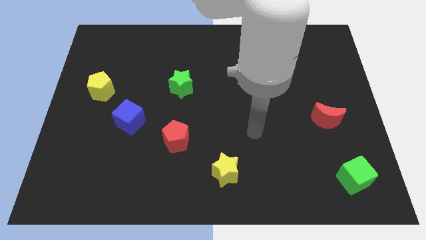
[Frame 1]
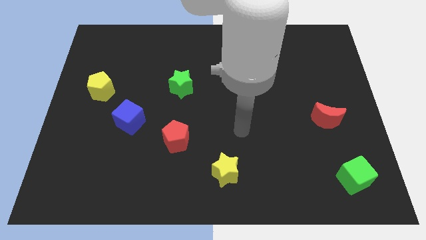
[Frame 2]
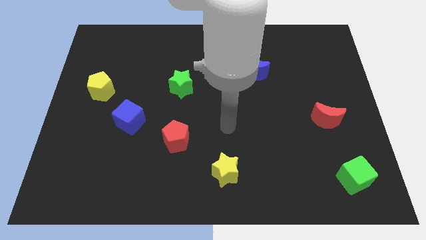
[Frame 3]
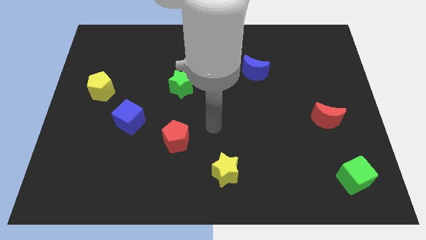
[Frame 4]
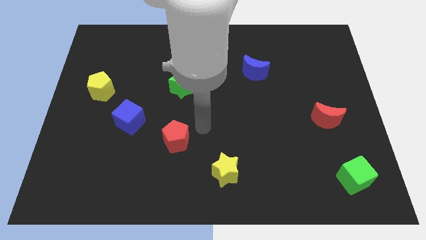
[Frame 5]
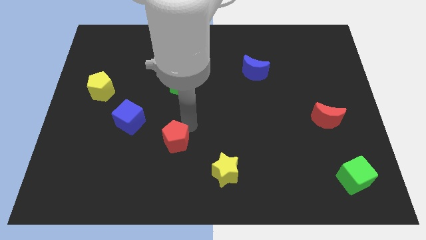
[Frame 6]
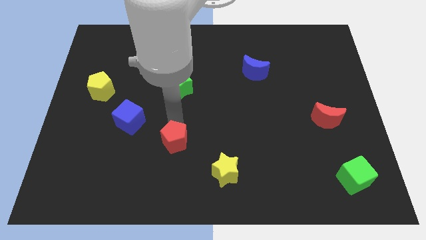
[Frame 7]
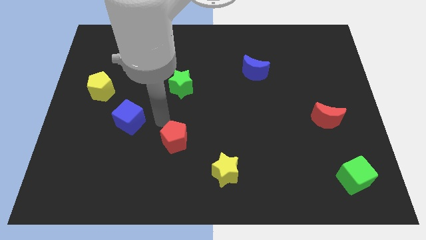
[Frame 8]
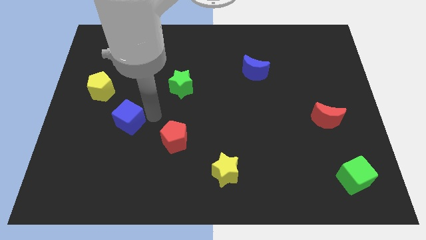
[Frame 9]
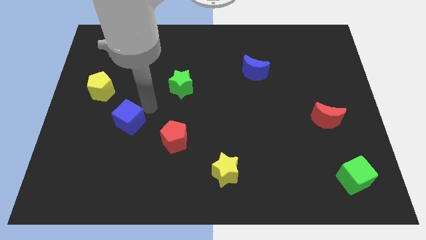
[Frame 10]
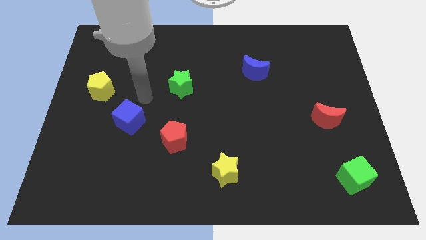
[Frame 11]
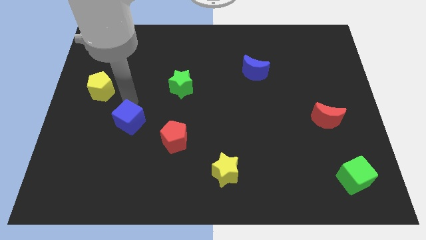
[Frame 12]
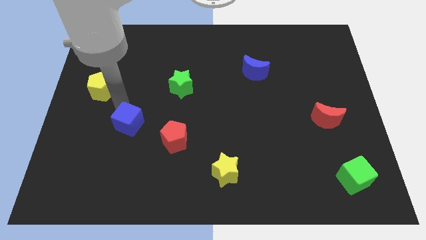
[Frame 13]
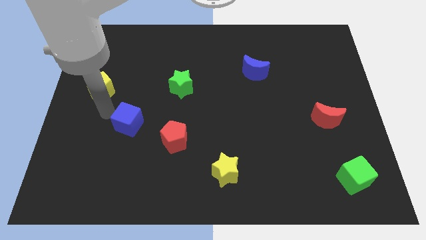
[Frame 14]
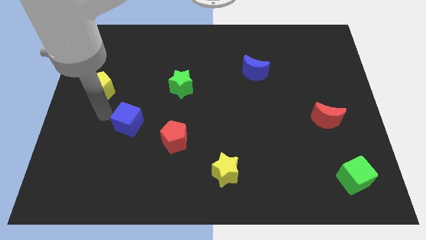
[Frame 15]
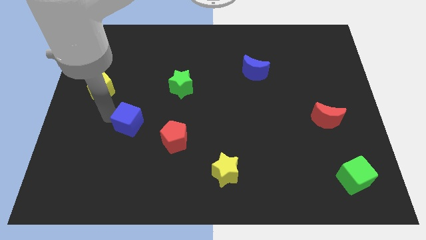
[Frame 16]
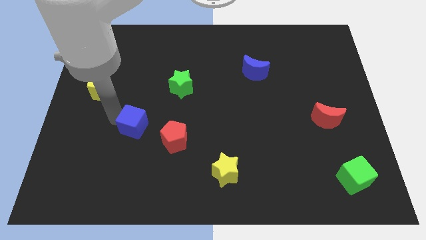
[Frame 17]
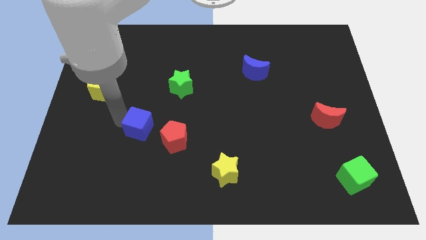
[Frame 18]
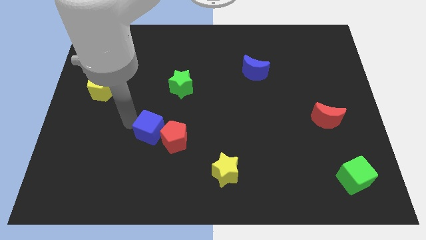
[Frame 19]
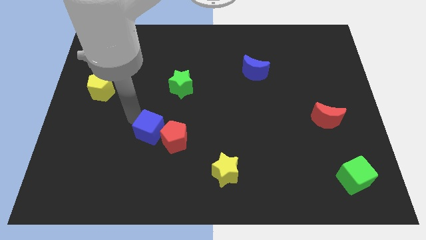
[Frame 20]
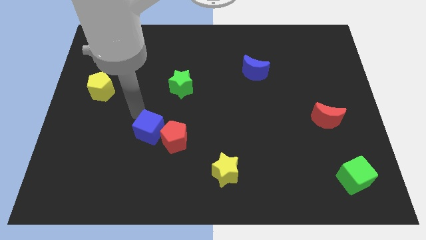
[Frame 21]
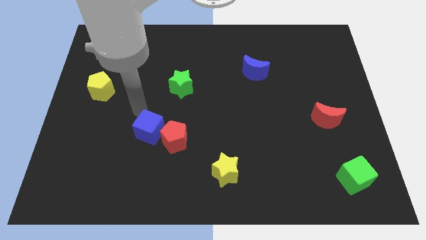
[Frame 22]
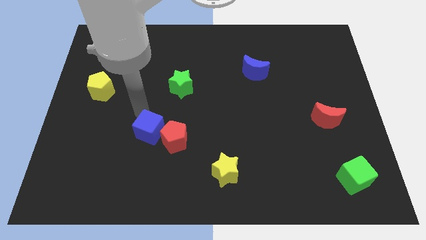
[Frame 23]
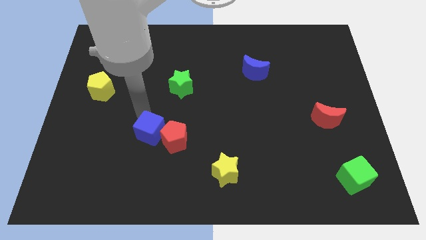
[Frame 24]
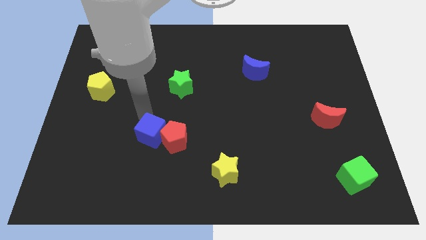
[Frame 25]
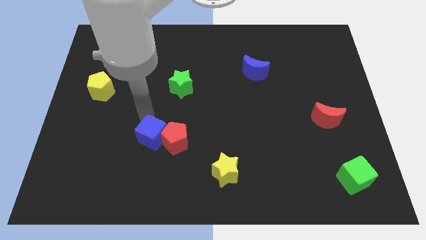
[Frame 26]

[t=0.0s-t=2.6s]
push the blue cube slightly diagonally downwards and to the right

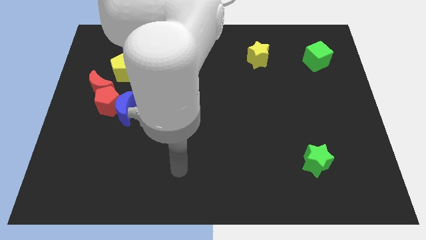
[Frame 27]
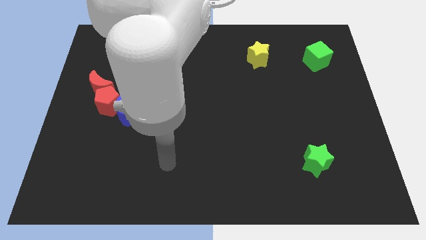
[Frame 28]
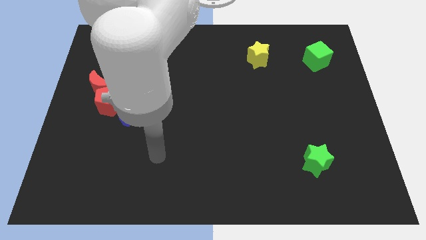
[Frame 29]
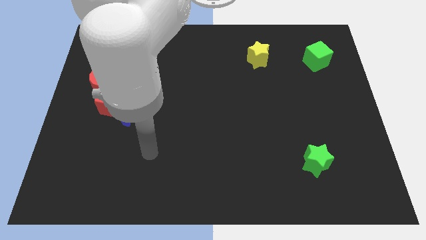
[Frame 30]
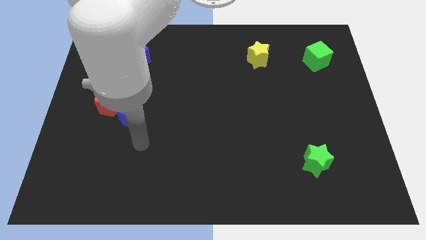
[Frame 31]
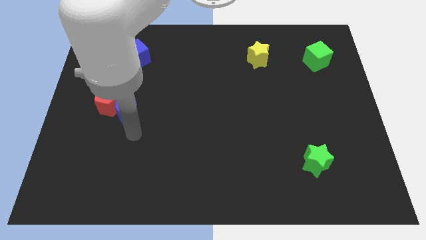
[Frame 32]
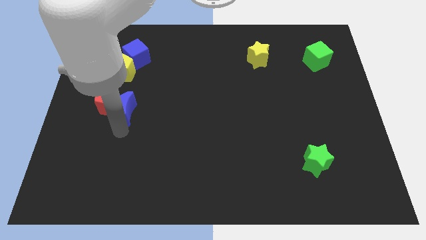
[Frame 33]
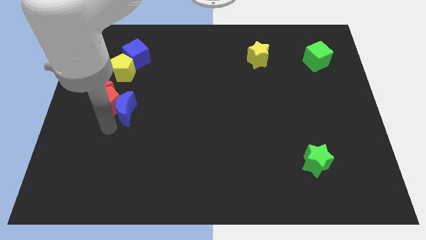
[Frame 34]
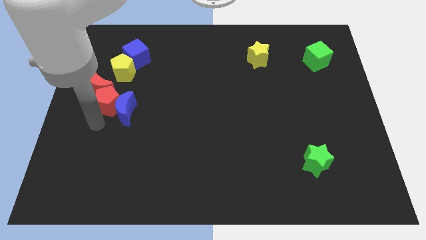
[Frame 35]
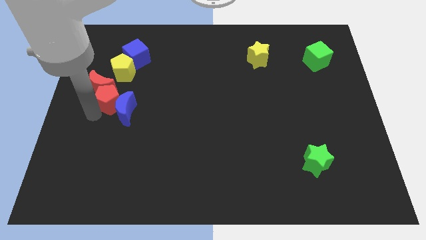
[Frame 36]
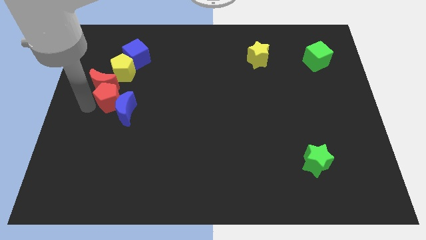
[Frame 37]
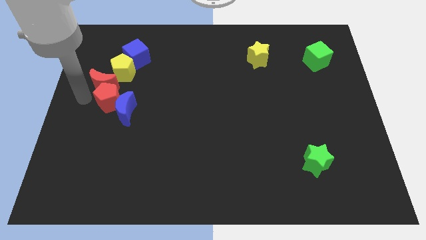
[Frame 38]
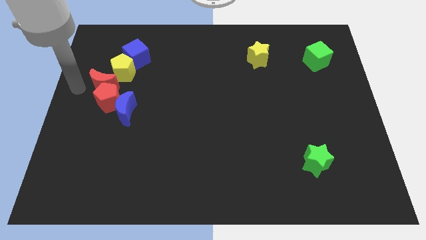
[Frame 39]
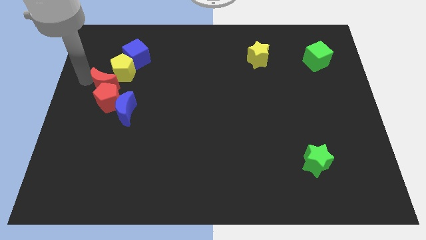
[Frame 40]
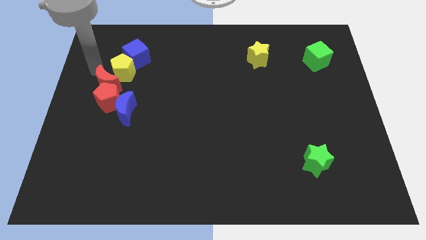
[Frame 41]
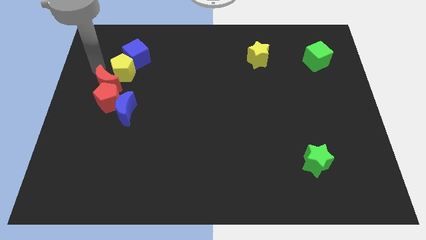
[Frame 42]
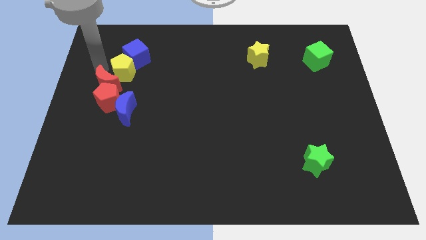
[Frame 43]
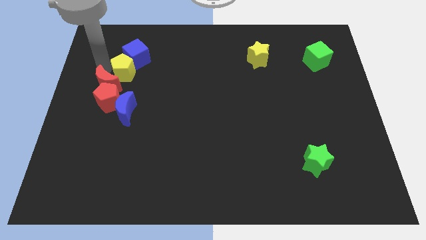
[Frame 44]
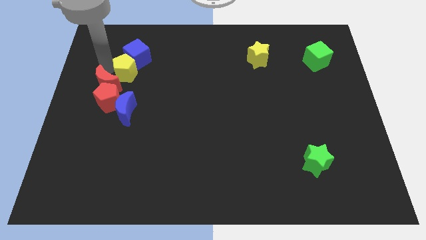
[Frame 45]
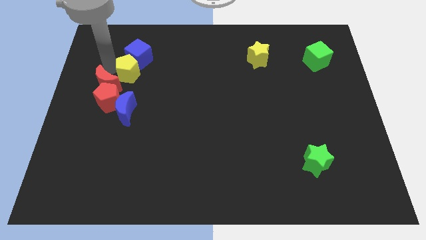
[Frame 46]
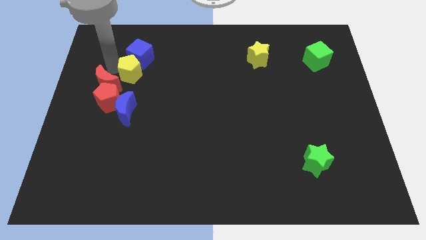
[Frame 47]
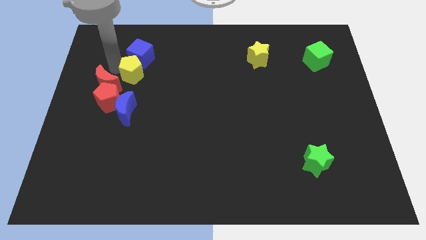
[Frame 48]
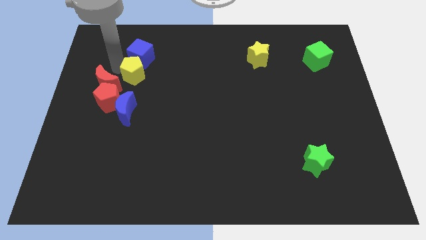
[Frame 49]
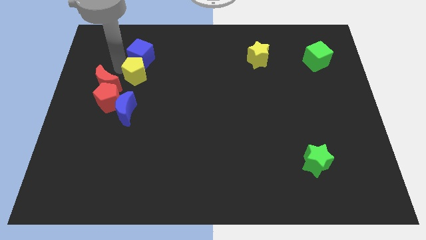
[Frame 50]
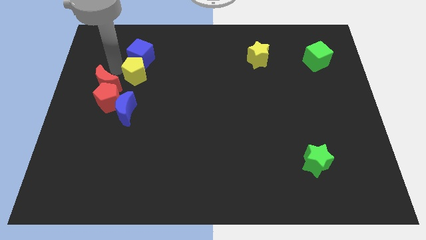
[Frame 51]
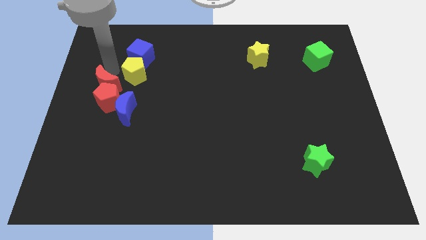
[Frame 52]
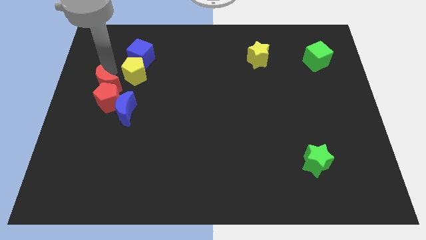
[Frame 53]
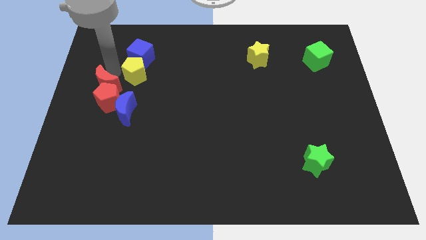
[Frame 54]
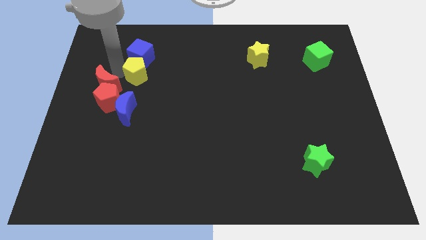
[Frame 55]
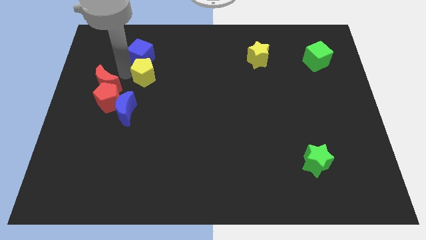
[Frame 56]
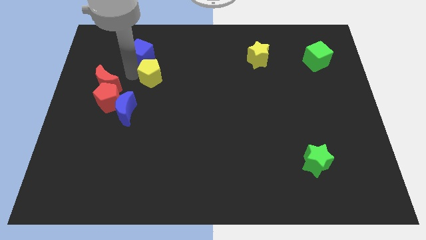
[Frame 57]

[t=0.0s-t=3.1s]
slightly push the yellow pentagon to the right

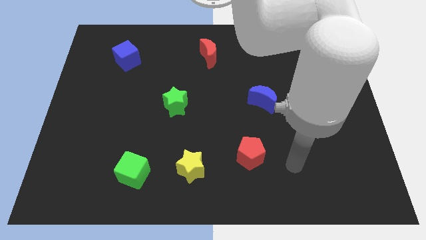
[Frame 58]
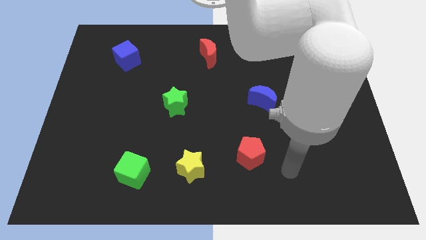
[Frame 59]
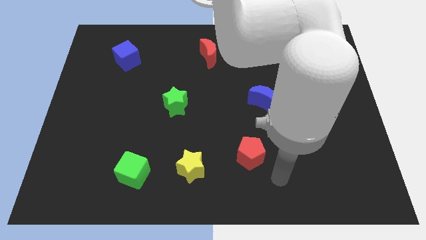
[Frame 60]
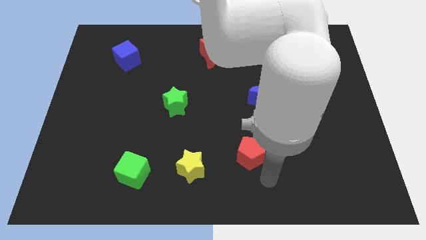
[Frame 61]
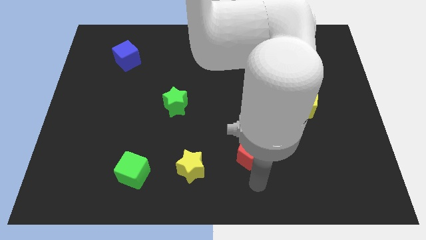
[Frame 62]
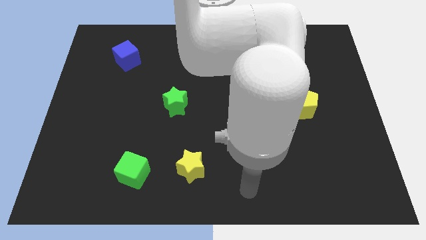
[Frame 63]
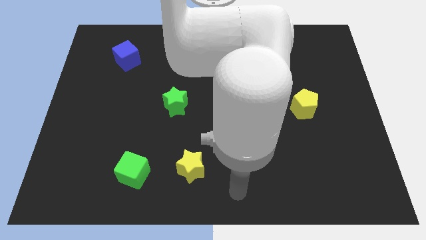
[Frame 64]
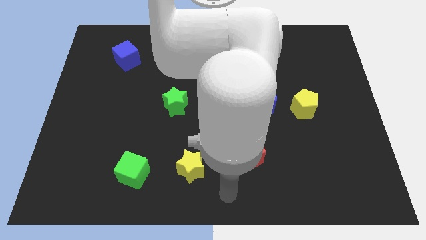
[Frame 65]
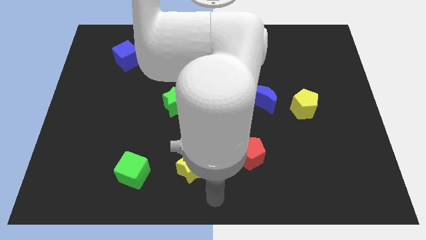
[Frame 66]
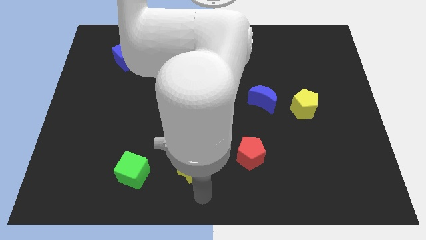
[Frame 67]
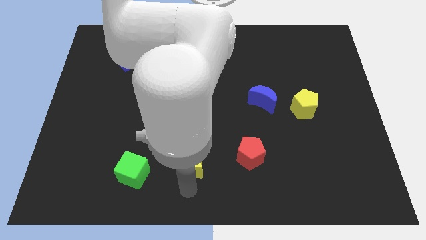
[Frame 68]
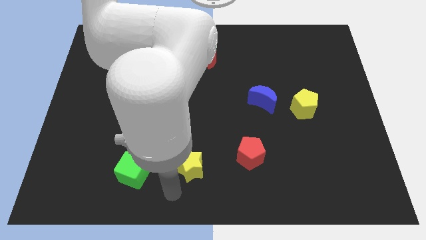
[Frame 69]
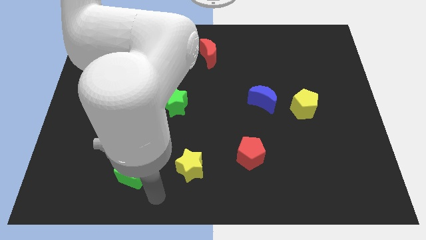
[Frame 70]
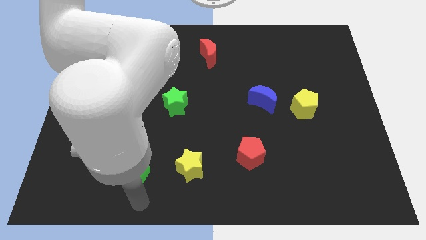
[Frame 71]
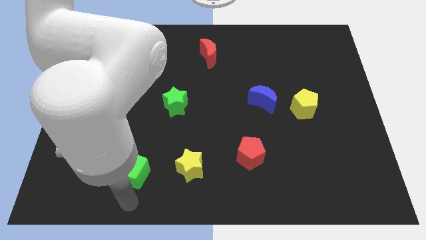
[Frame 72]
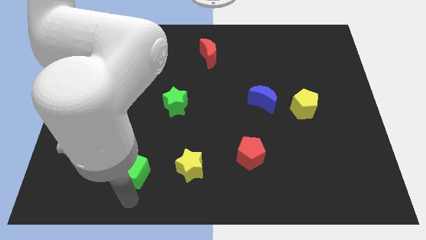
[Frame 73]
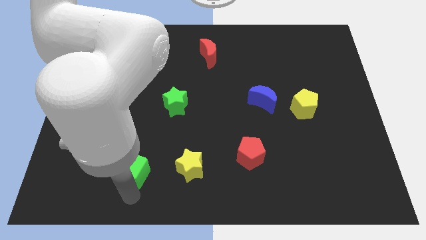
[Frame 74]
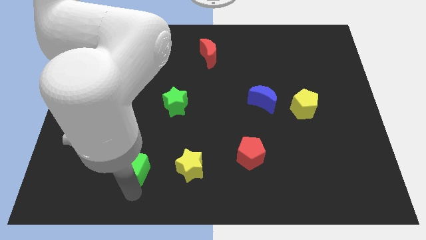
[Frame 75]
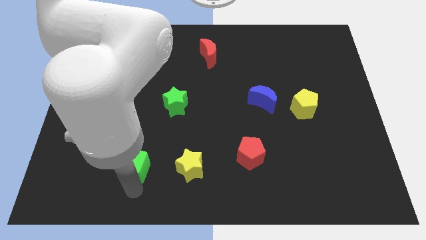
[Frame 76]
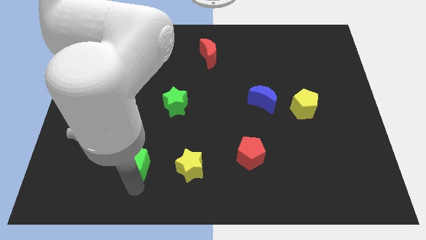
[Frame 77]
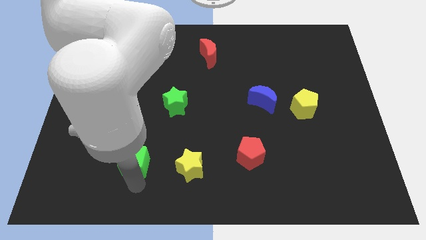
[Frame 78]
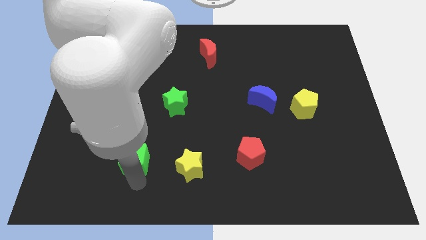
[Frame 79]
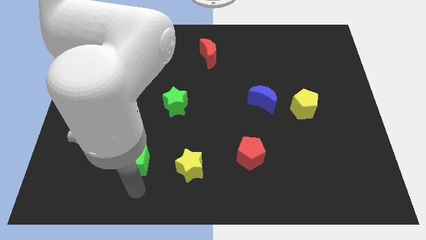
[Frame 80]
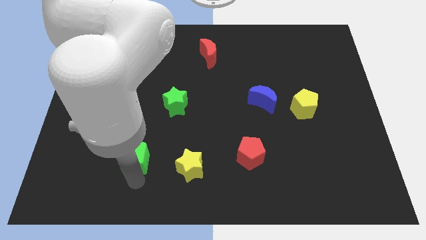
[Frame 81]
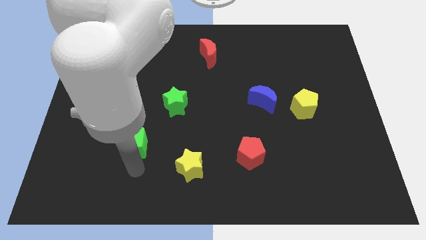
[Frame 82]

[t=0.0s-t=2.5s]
slide the green cube upwards a bit
